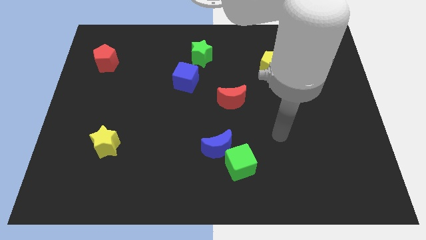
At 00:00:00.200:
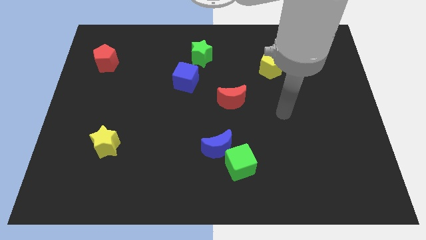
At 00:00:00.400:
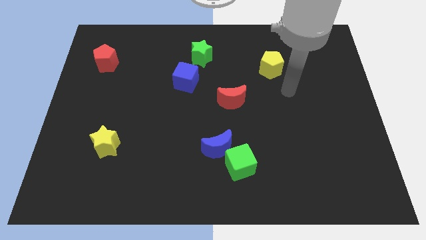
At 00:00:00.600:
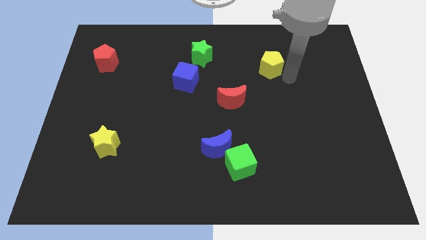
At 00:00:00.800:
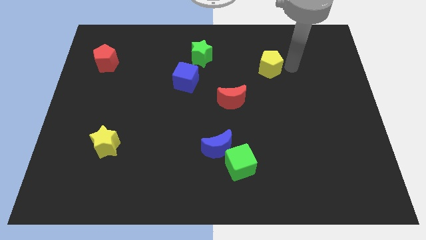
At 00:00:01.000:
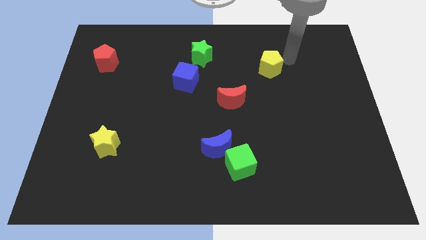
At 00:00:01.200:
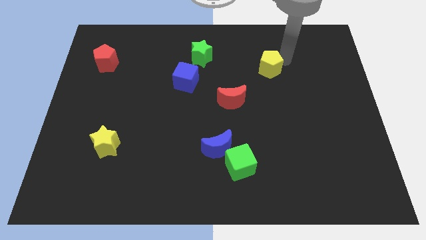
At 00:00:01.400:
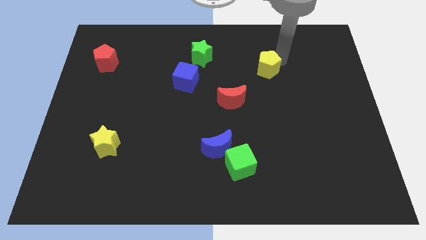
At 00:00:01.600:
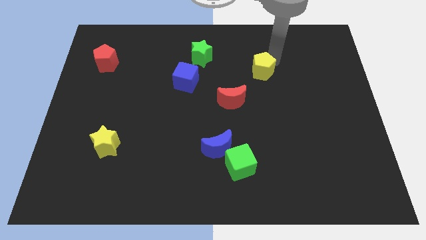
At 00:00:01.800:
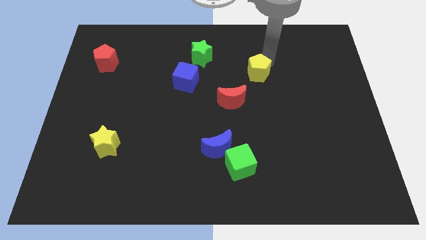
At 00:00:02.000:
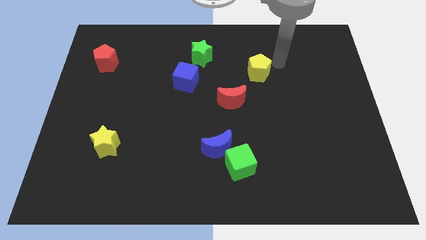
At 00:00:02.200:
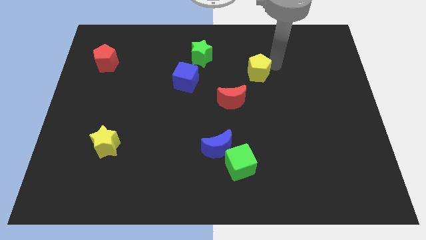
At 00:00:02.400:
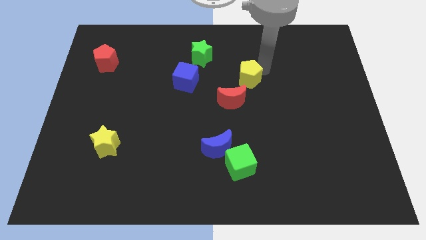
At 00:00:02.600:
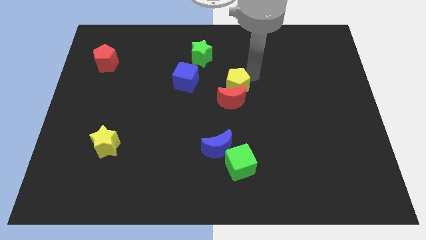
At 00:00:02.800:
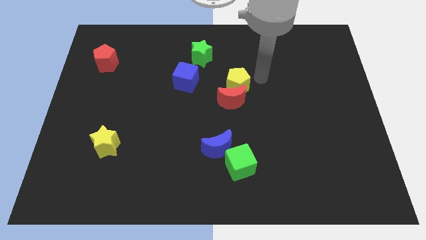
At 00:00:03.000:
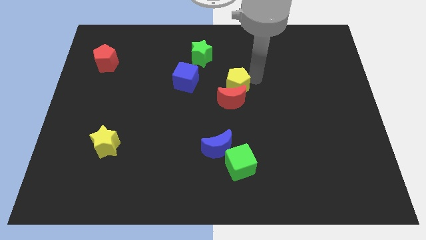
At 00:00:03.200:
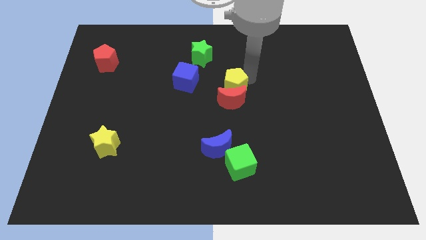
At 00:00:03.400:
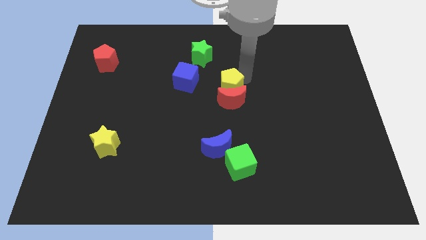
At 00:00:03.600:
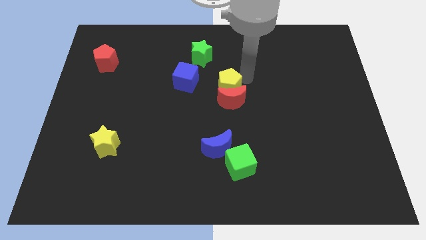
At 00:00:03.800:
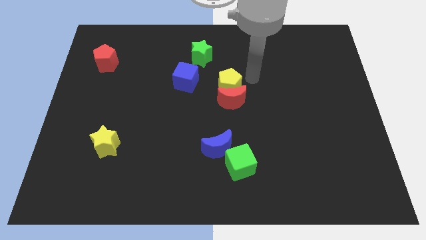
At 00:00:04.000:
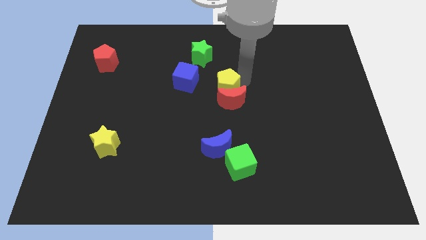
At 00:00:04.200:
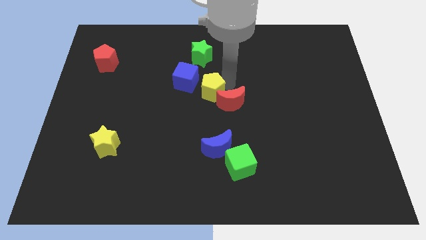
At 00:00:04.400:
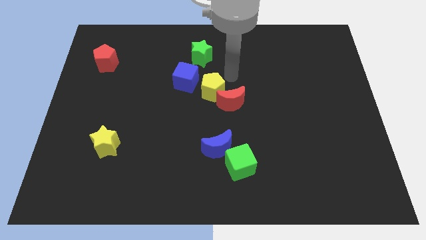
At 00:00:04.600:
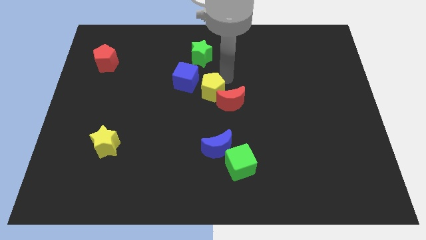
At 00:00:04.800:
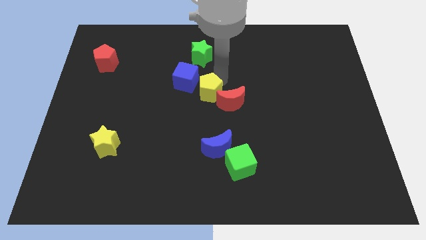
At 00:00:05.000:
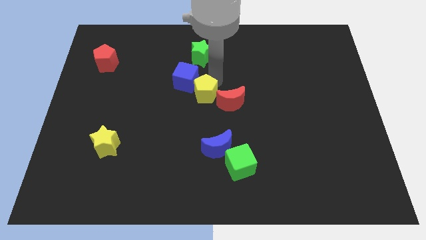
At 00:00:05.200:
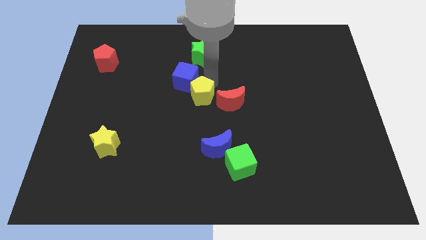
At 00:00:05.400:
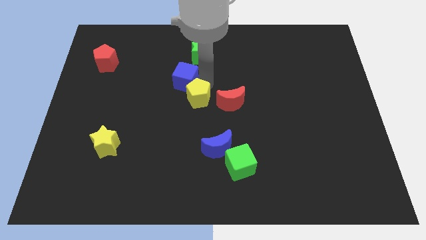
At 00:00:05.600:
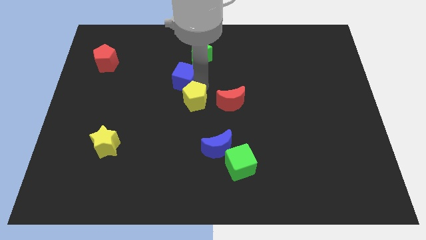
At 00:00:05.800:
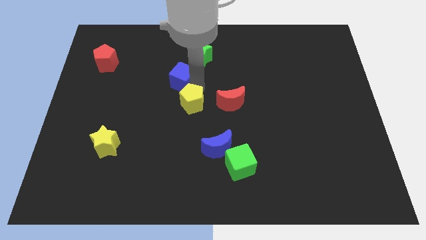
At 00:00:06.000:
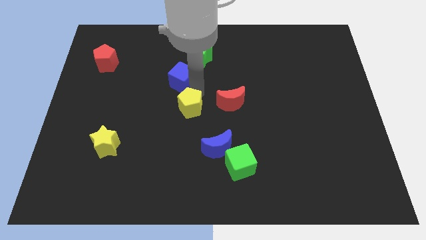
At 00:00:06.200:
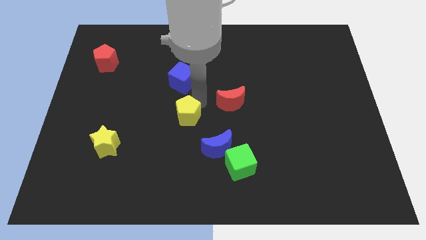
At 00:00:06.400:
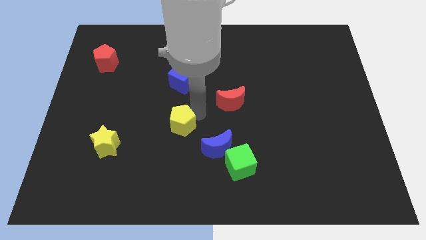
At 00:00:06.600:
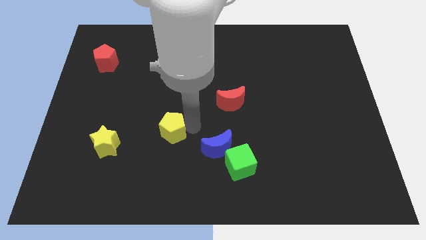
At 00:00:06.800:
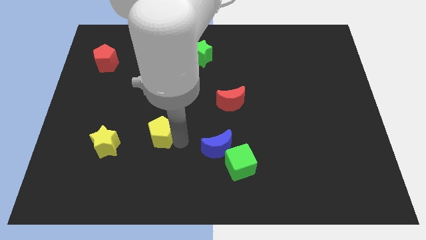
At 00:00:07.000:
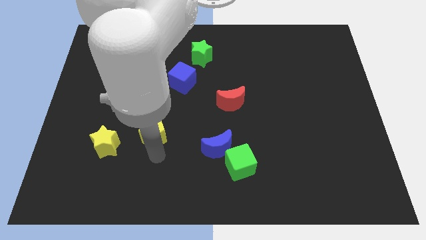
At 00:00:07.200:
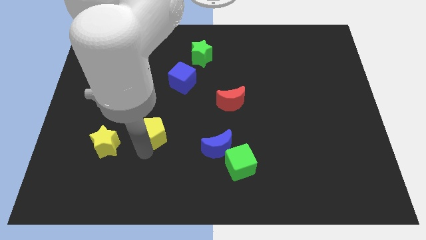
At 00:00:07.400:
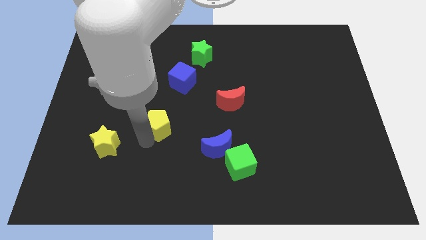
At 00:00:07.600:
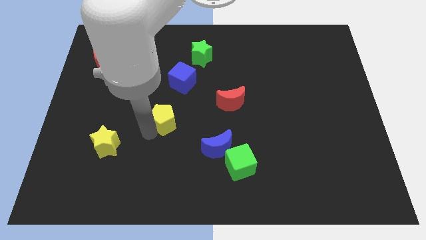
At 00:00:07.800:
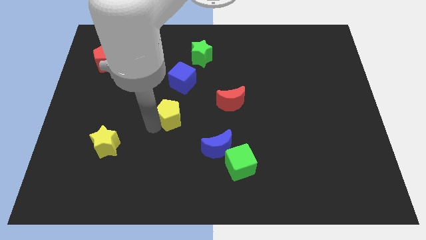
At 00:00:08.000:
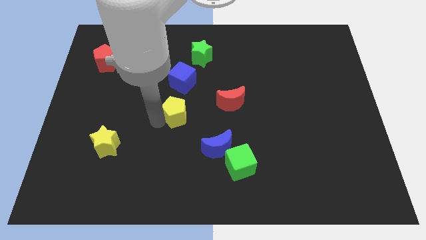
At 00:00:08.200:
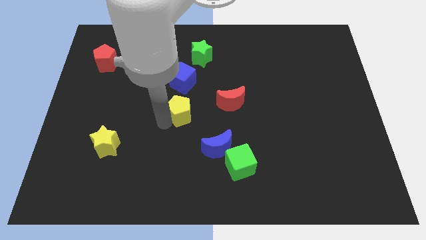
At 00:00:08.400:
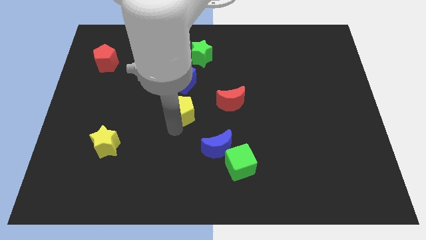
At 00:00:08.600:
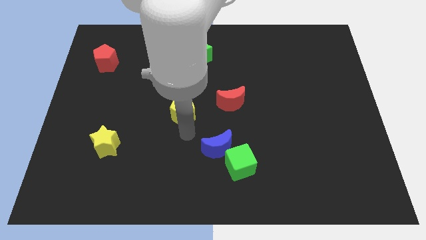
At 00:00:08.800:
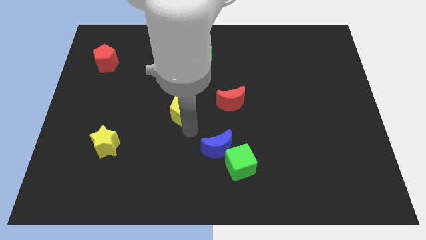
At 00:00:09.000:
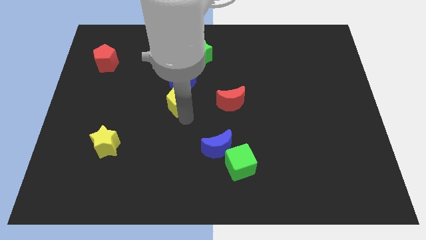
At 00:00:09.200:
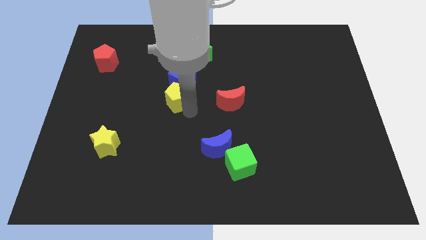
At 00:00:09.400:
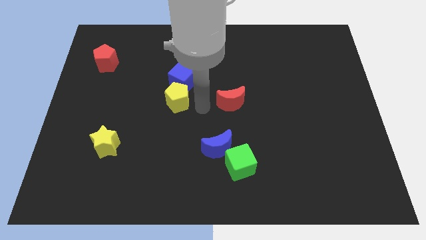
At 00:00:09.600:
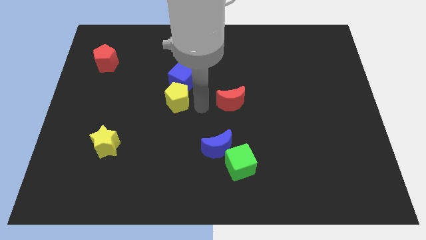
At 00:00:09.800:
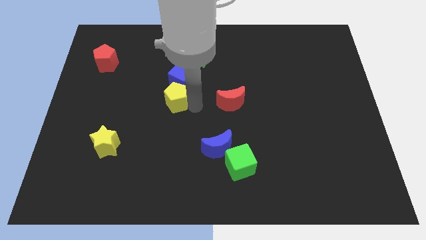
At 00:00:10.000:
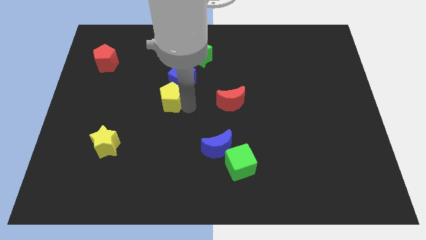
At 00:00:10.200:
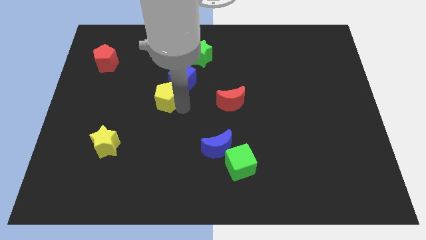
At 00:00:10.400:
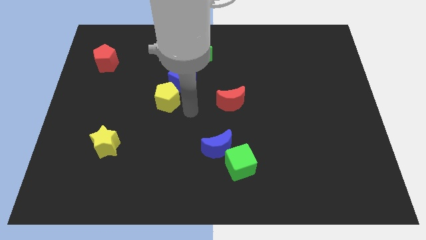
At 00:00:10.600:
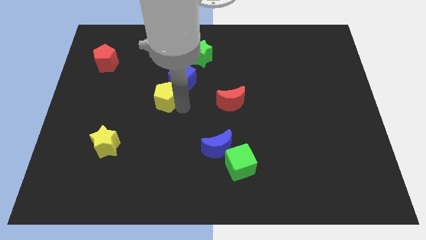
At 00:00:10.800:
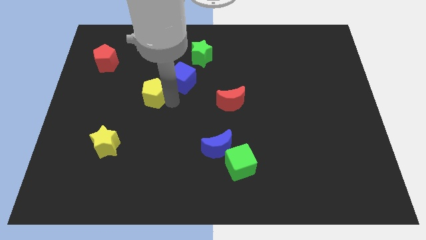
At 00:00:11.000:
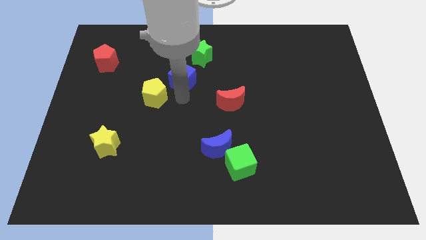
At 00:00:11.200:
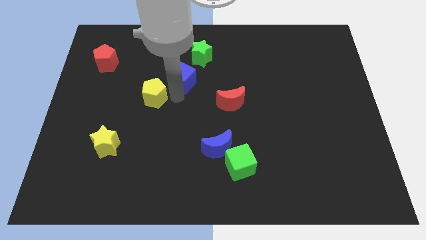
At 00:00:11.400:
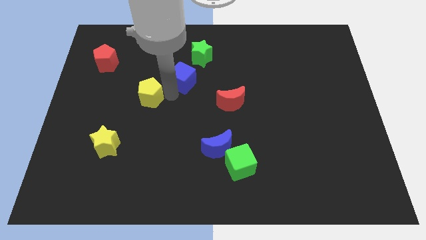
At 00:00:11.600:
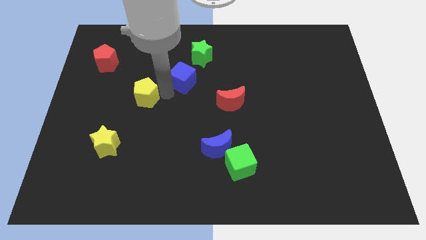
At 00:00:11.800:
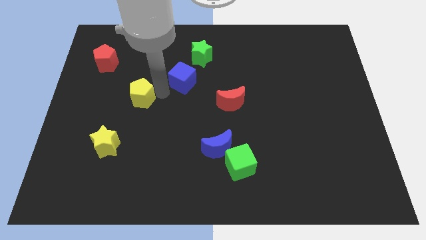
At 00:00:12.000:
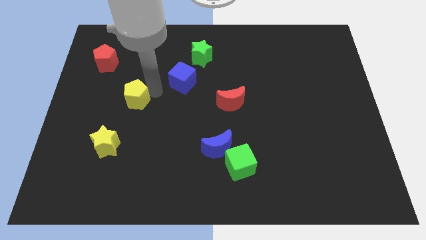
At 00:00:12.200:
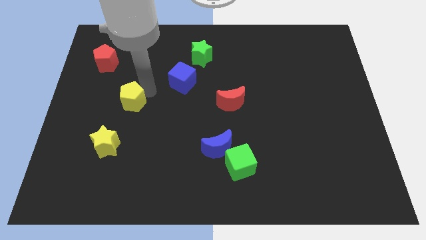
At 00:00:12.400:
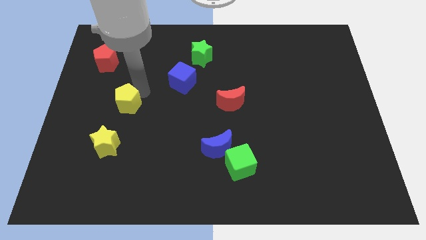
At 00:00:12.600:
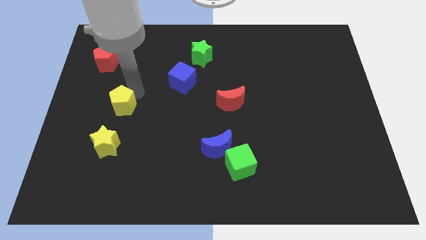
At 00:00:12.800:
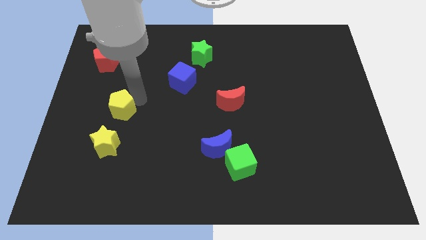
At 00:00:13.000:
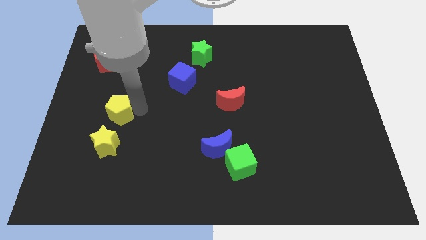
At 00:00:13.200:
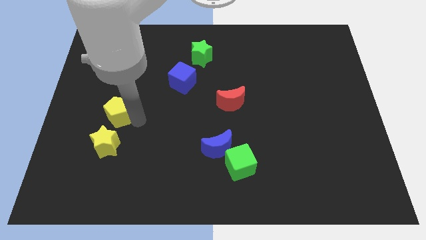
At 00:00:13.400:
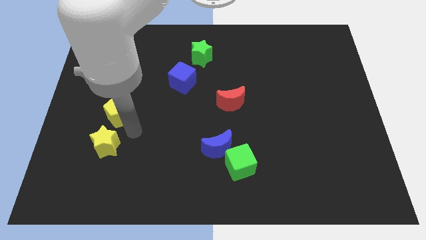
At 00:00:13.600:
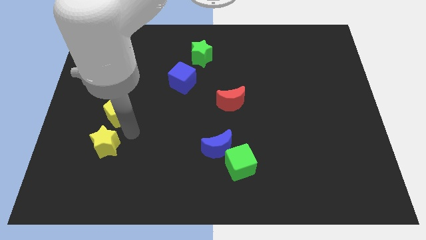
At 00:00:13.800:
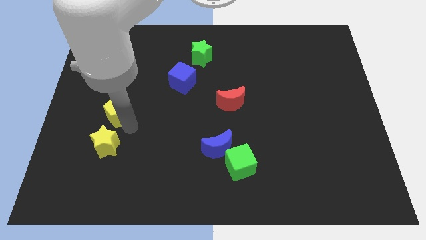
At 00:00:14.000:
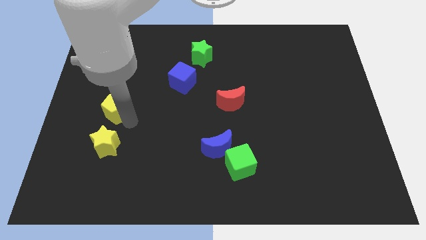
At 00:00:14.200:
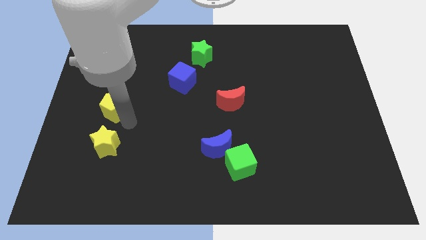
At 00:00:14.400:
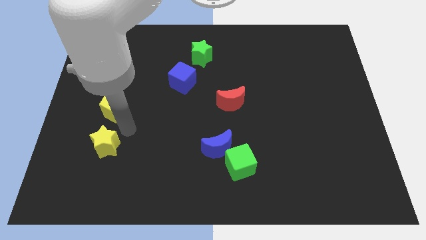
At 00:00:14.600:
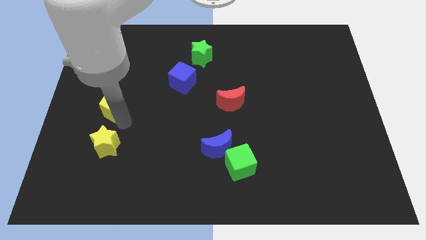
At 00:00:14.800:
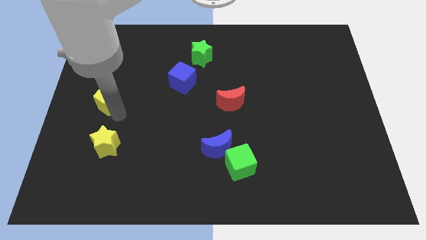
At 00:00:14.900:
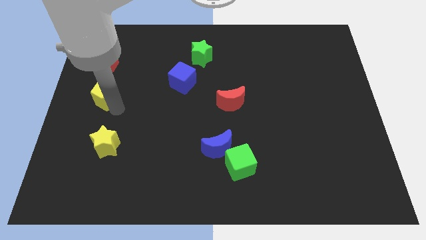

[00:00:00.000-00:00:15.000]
slide the yellow pentagon to the left side
